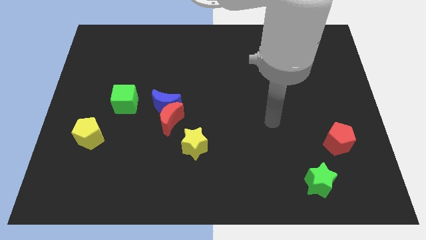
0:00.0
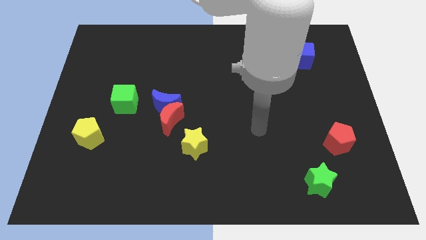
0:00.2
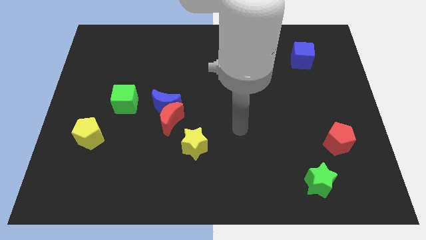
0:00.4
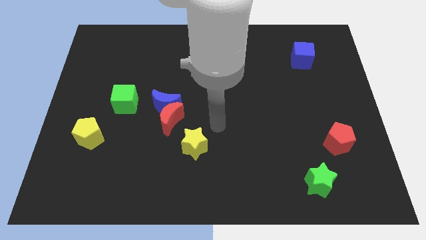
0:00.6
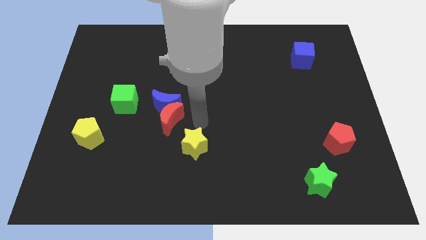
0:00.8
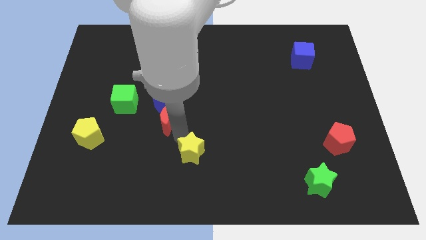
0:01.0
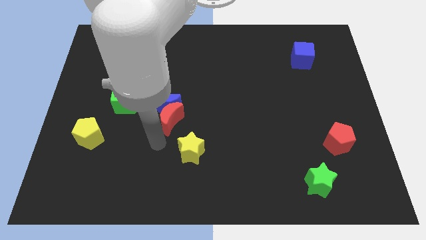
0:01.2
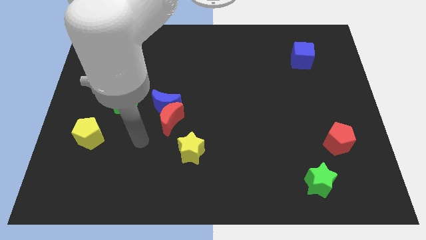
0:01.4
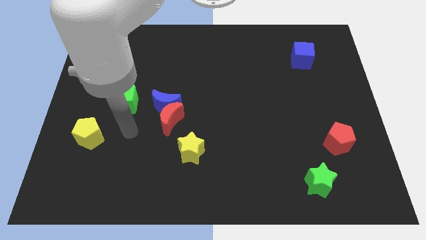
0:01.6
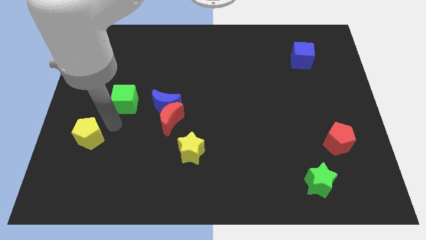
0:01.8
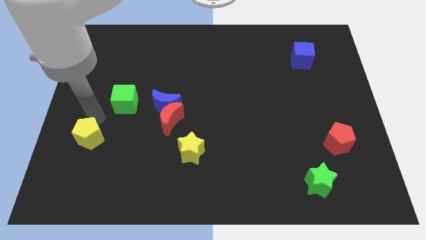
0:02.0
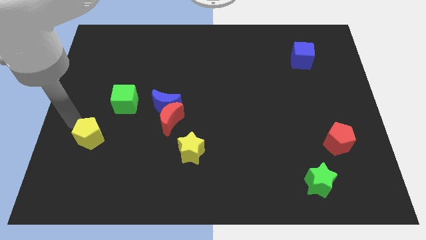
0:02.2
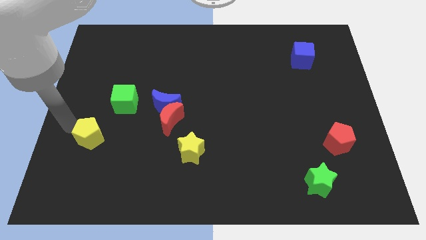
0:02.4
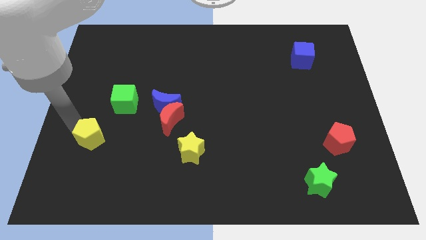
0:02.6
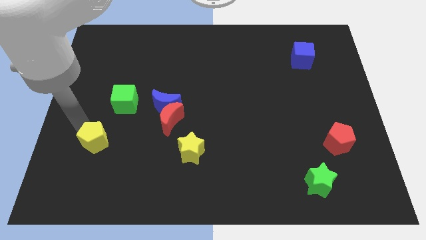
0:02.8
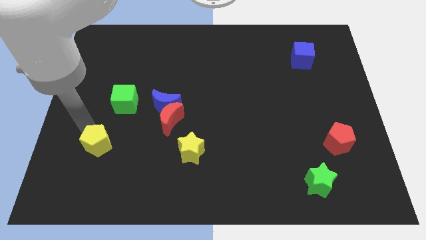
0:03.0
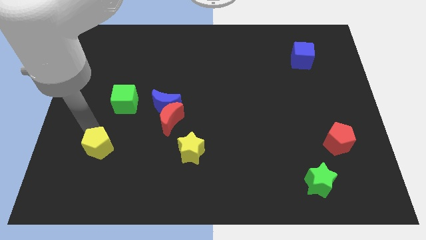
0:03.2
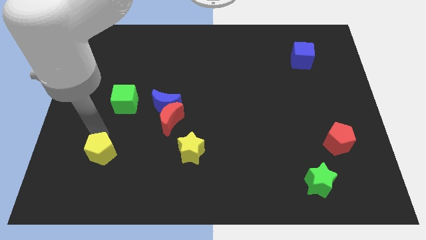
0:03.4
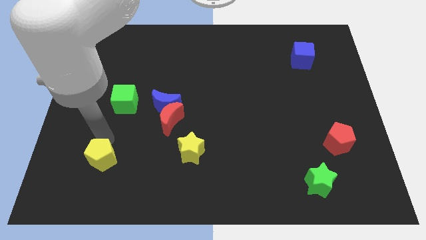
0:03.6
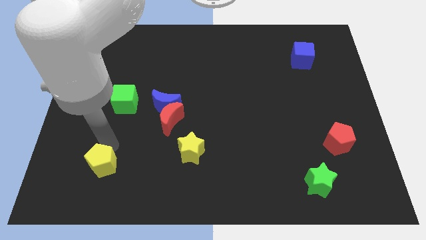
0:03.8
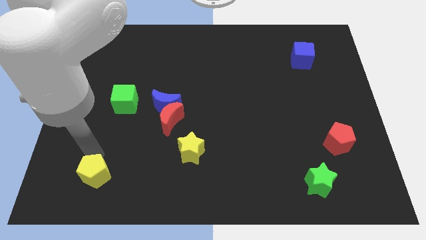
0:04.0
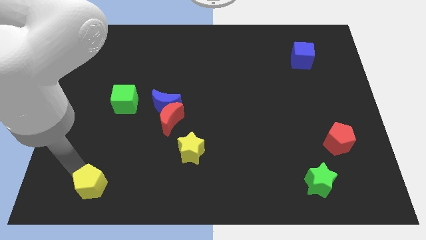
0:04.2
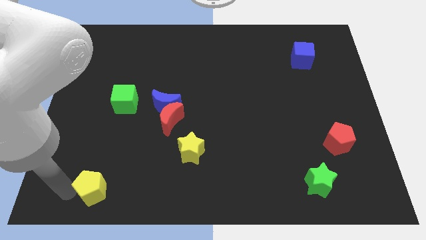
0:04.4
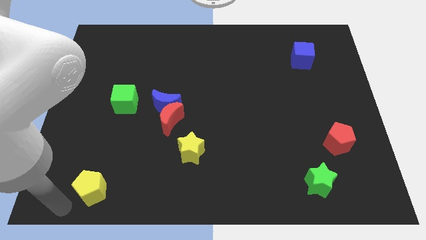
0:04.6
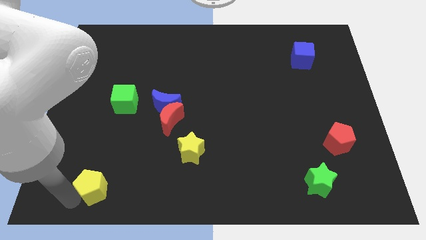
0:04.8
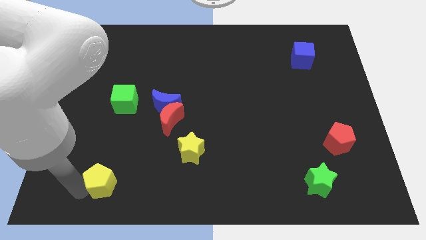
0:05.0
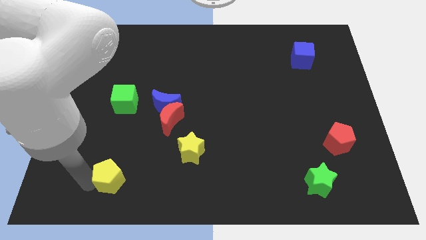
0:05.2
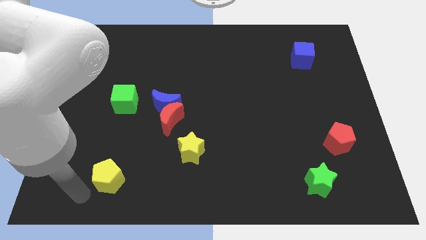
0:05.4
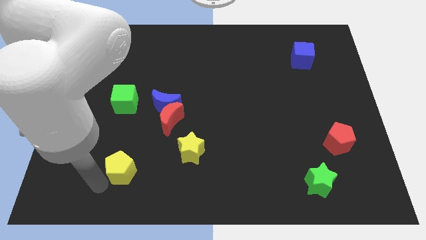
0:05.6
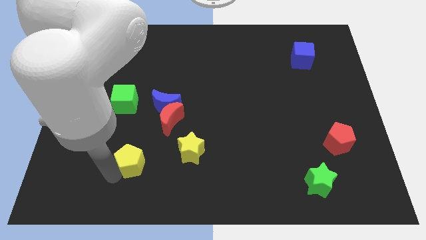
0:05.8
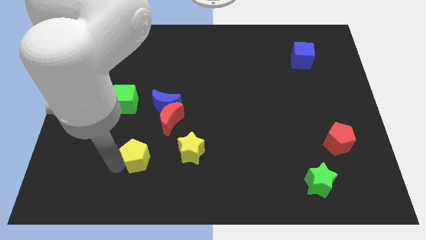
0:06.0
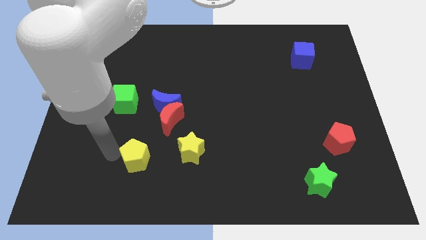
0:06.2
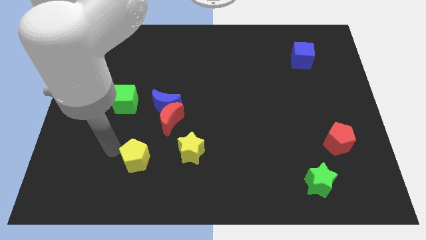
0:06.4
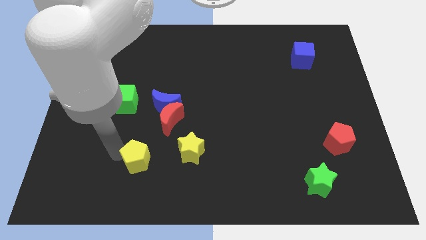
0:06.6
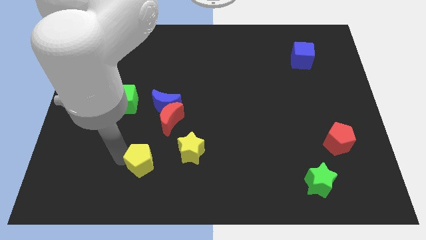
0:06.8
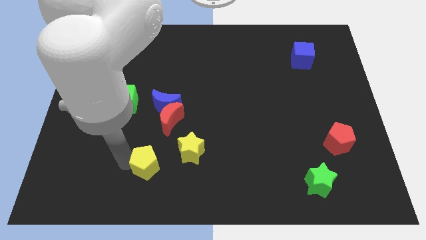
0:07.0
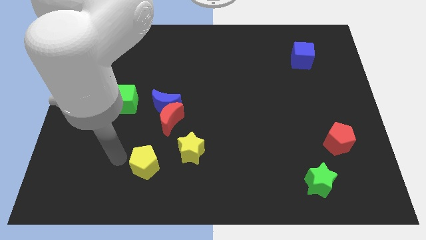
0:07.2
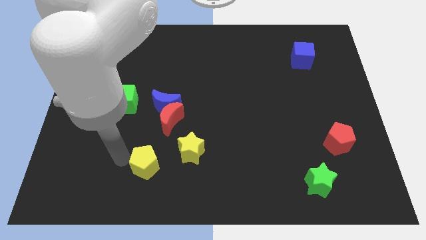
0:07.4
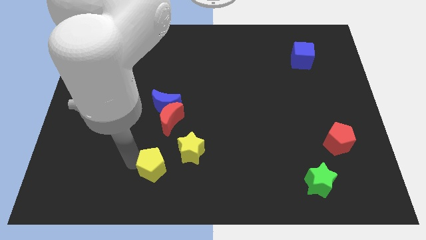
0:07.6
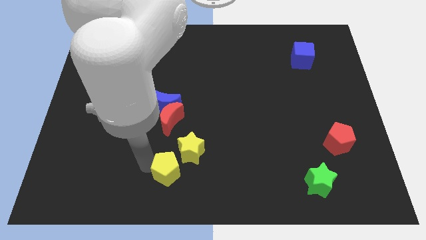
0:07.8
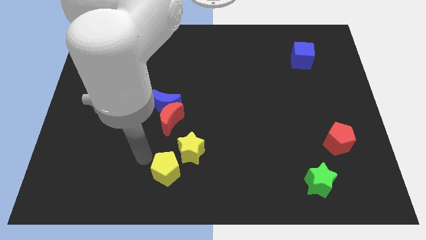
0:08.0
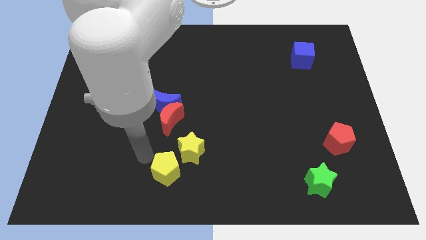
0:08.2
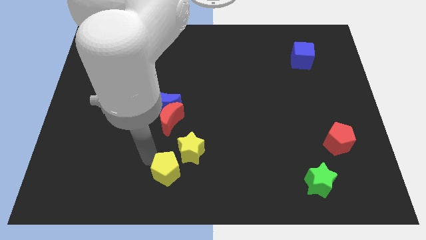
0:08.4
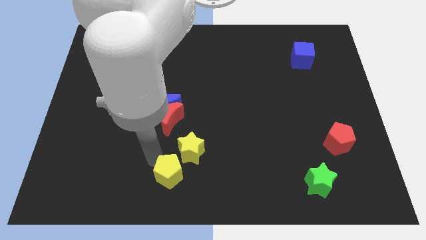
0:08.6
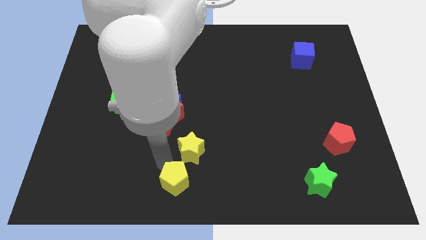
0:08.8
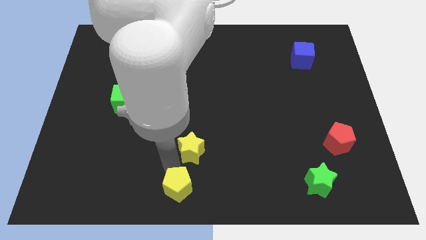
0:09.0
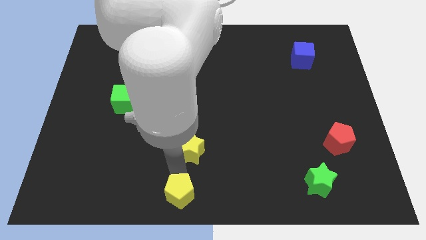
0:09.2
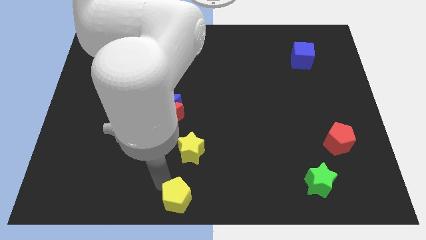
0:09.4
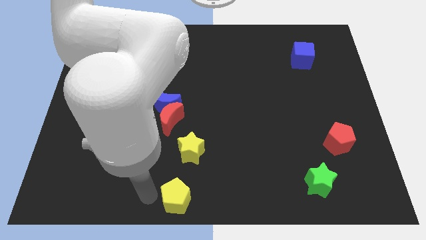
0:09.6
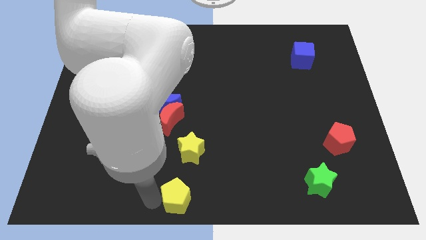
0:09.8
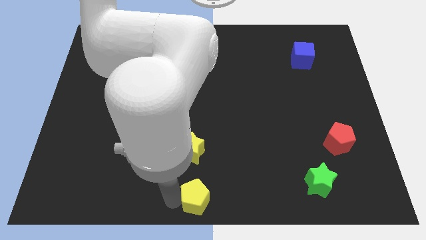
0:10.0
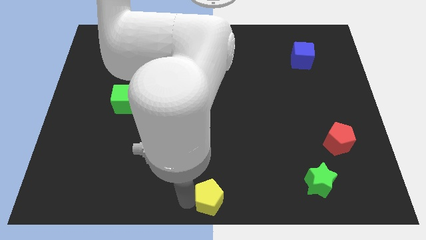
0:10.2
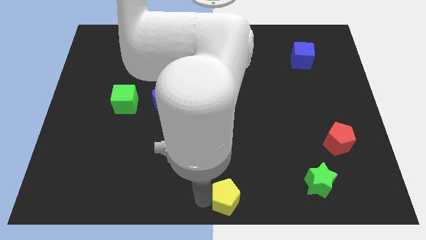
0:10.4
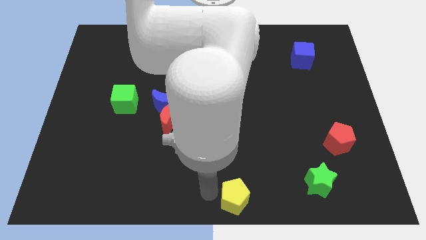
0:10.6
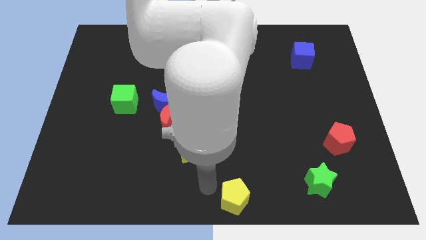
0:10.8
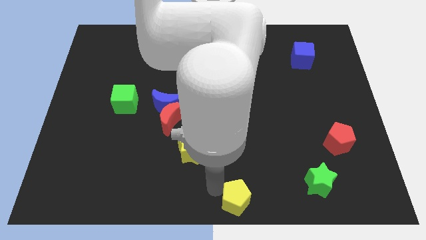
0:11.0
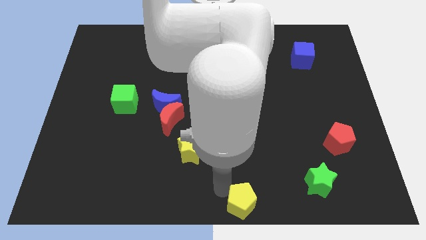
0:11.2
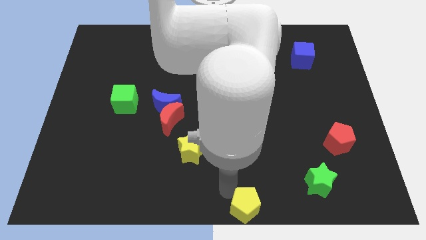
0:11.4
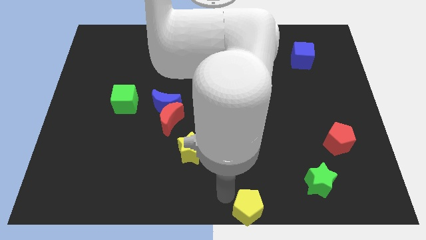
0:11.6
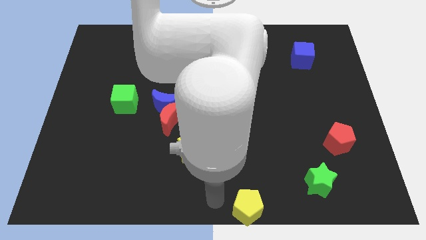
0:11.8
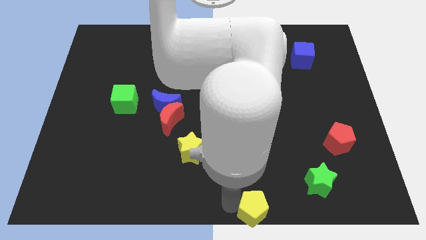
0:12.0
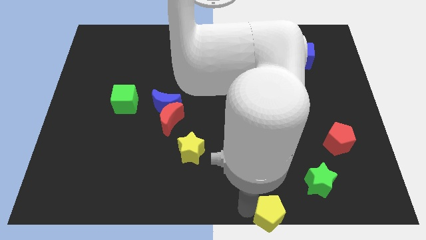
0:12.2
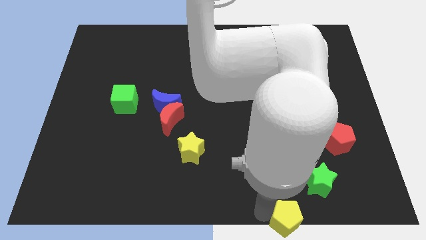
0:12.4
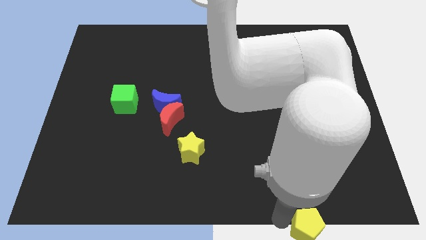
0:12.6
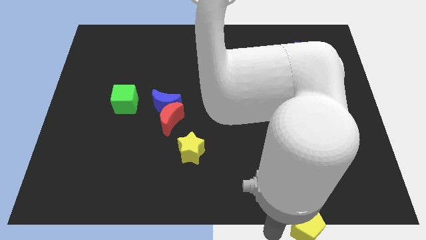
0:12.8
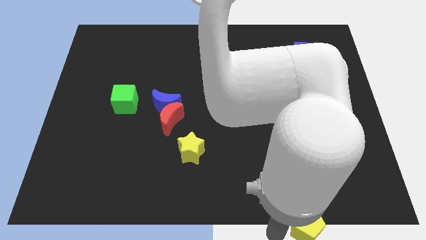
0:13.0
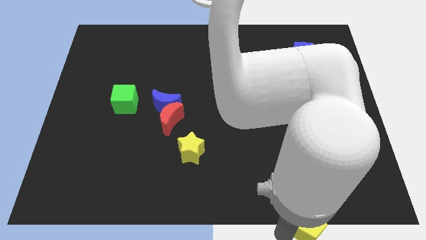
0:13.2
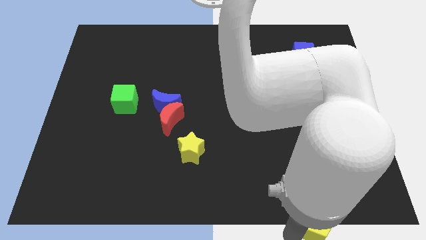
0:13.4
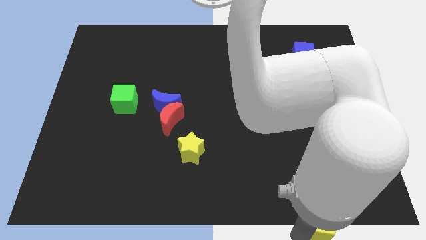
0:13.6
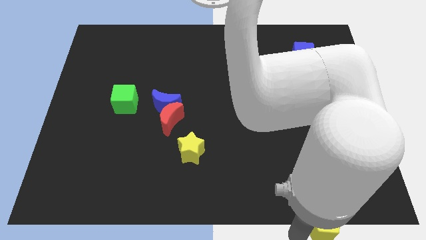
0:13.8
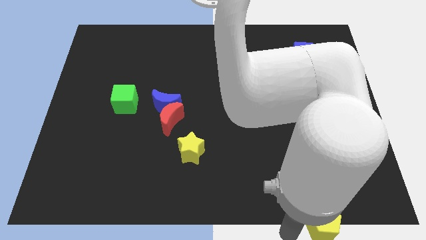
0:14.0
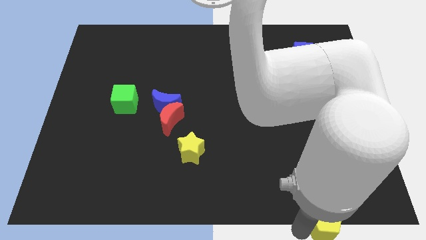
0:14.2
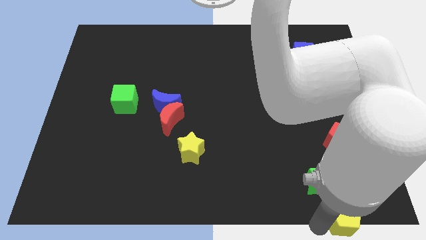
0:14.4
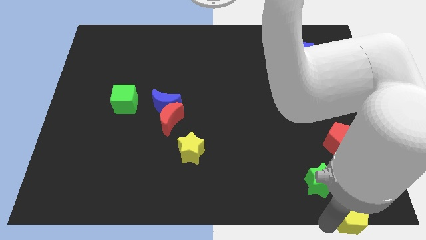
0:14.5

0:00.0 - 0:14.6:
push the yellow pentagon to the lower right corner

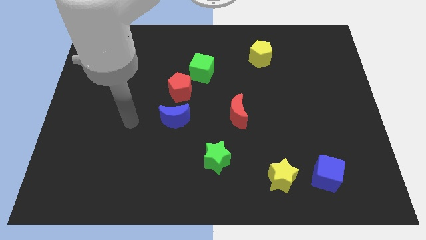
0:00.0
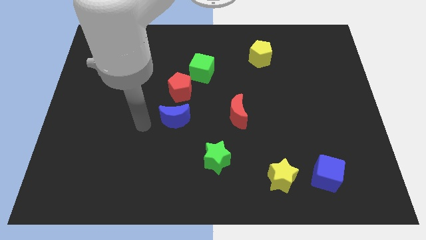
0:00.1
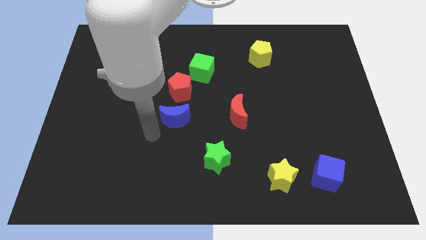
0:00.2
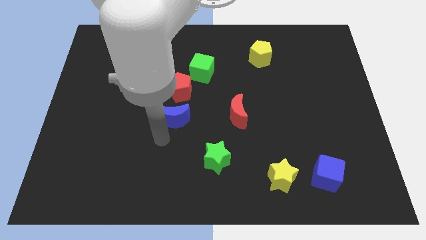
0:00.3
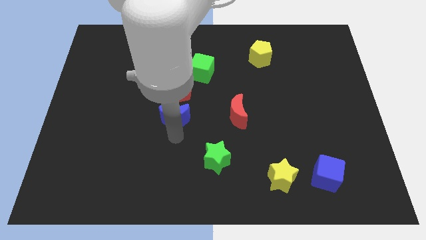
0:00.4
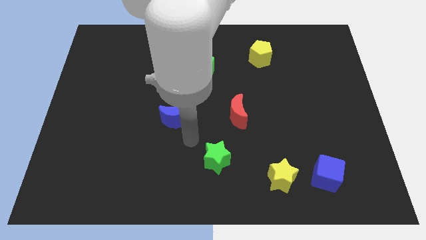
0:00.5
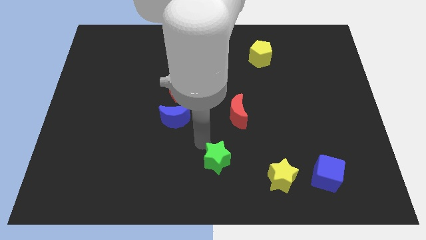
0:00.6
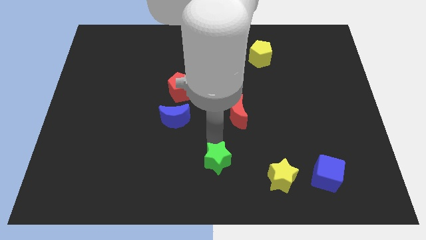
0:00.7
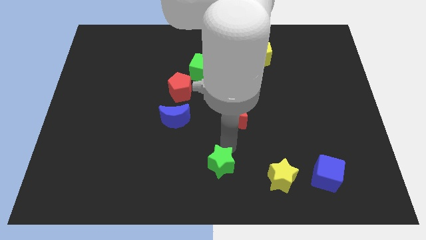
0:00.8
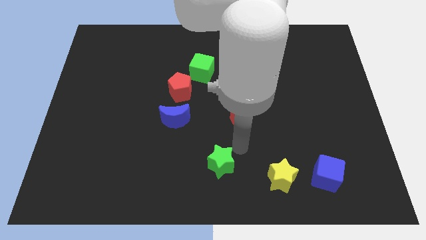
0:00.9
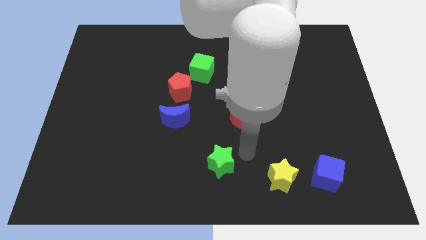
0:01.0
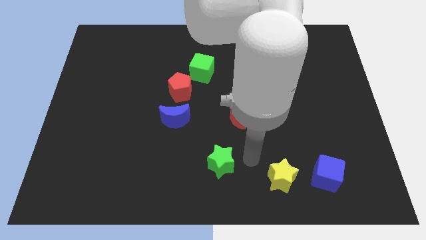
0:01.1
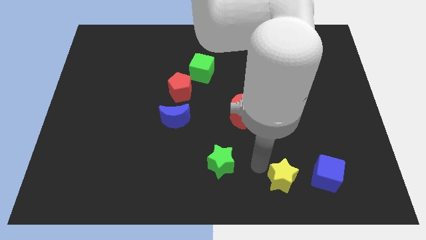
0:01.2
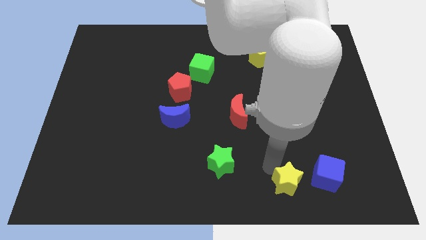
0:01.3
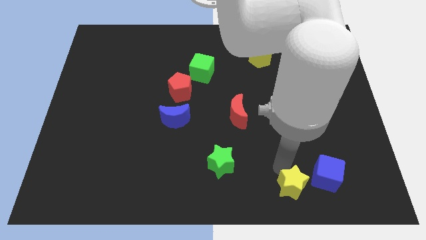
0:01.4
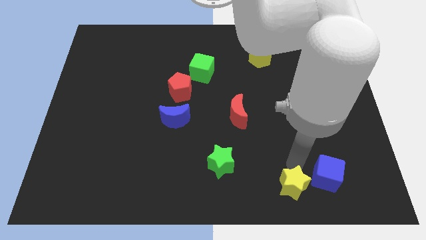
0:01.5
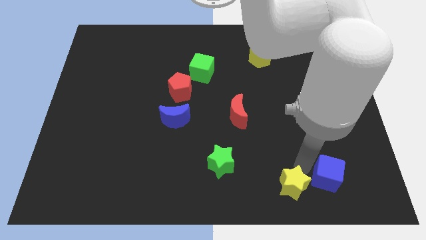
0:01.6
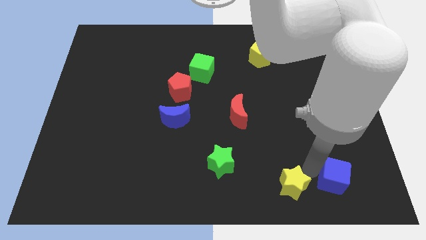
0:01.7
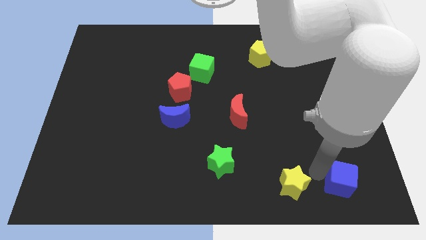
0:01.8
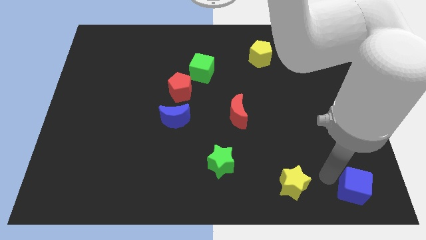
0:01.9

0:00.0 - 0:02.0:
push the blue cube to the bottom right of the board
